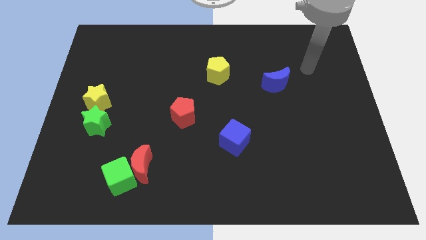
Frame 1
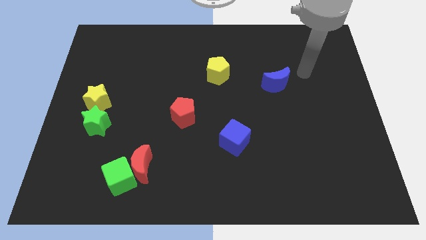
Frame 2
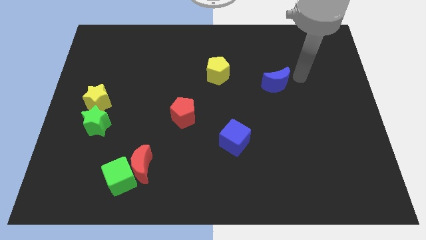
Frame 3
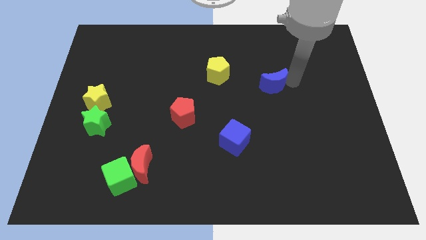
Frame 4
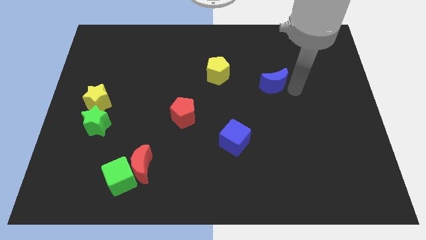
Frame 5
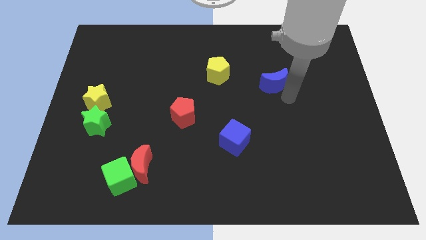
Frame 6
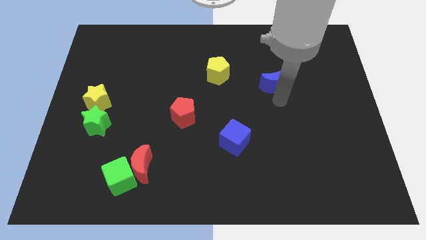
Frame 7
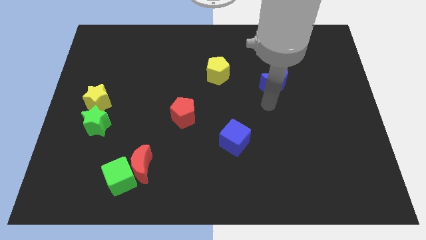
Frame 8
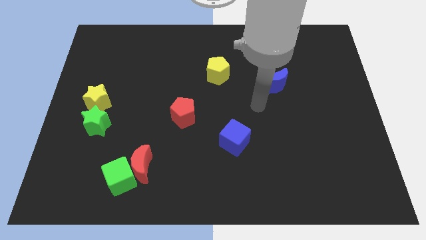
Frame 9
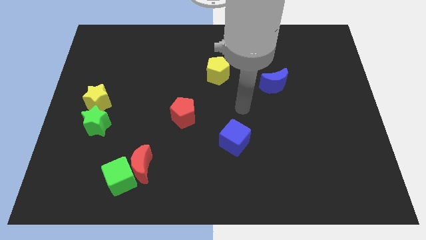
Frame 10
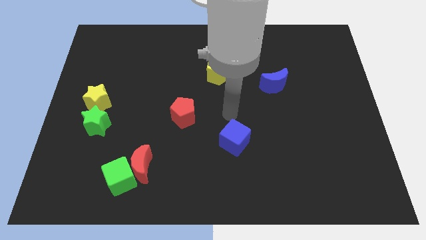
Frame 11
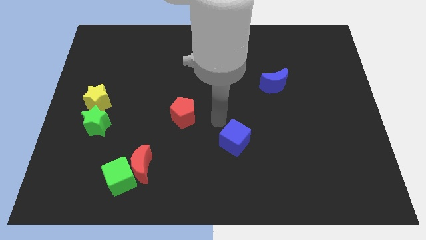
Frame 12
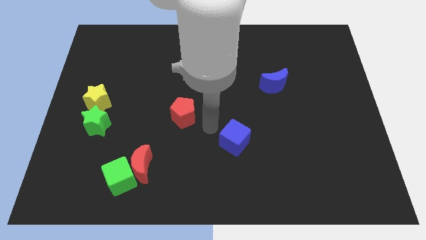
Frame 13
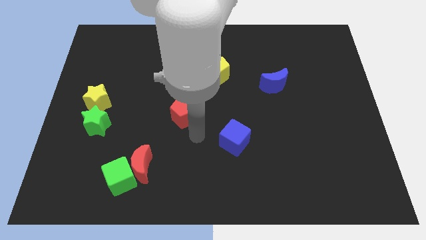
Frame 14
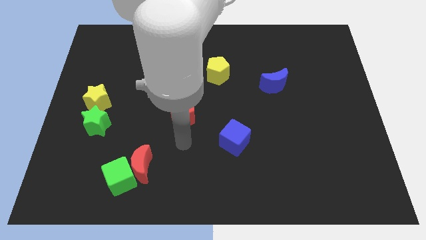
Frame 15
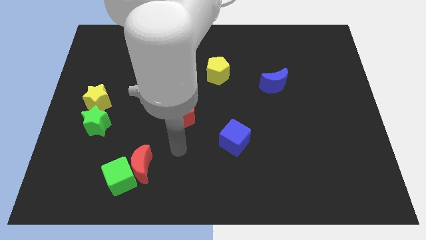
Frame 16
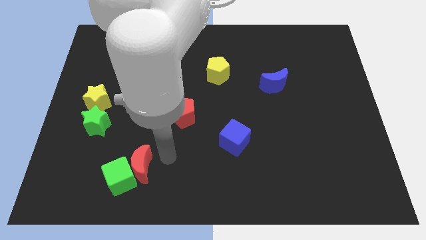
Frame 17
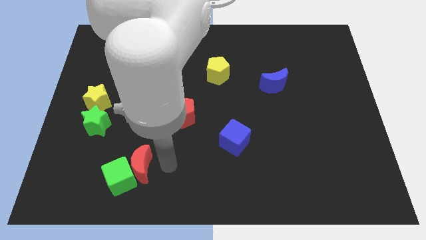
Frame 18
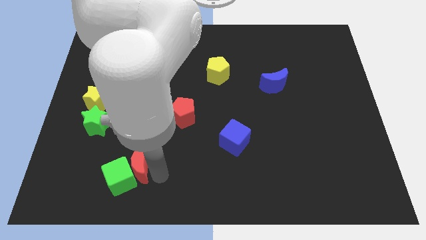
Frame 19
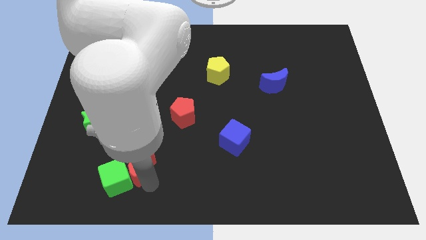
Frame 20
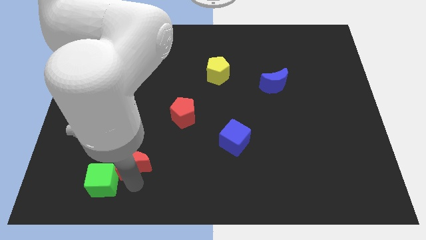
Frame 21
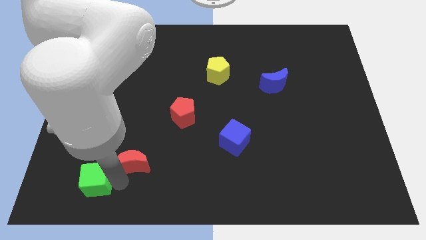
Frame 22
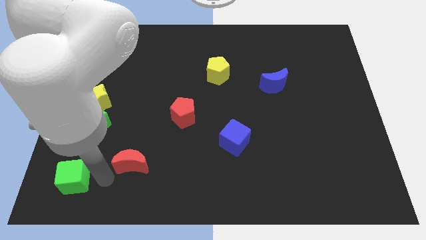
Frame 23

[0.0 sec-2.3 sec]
pull the red moon apart from the green cube

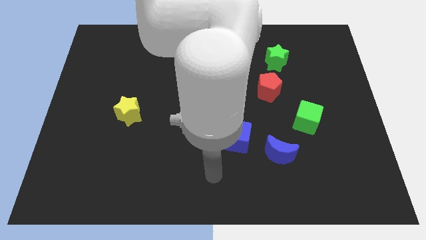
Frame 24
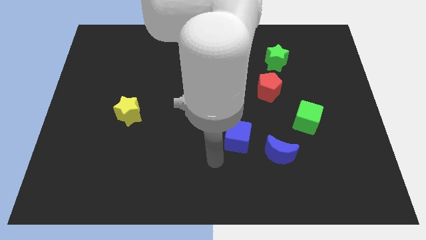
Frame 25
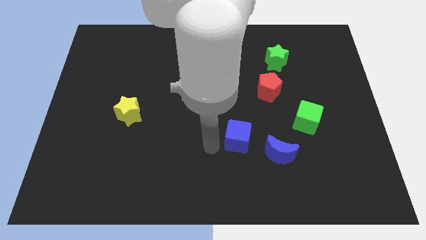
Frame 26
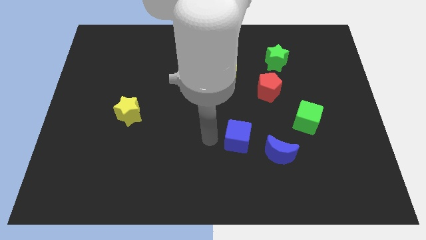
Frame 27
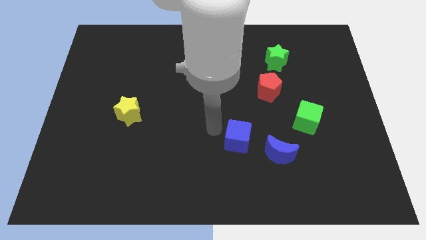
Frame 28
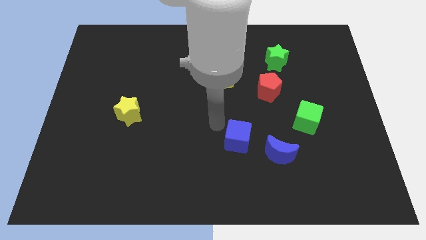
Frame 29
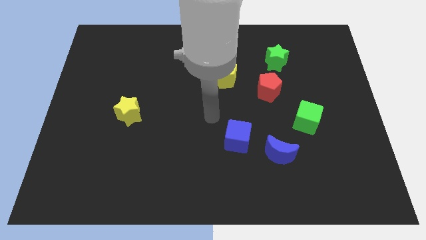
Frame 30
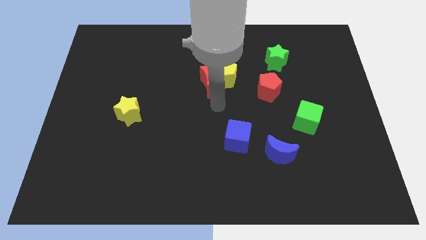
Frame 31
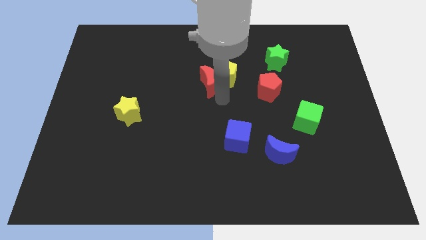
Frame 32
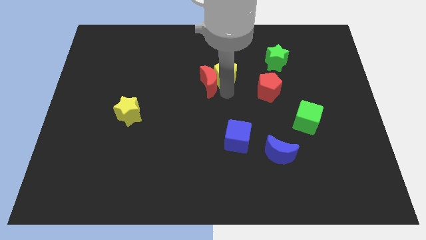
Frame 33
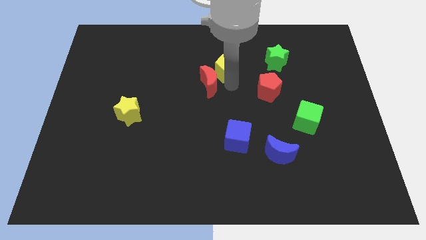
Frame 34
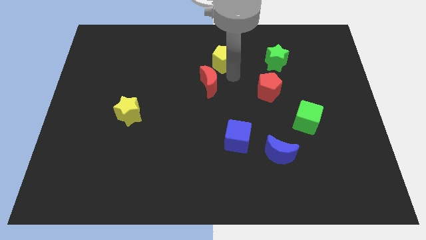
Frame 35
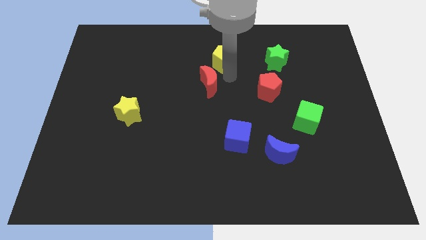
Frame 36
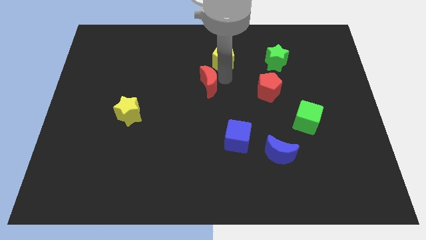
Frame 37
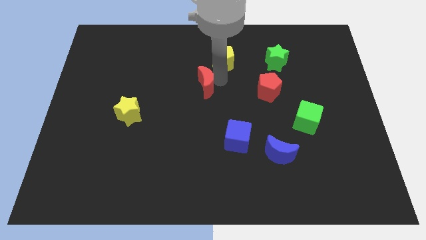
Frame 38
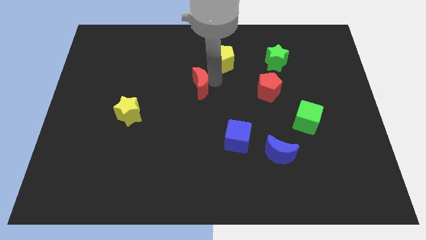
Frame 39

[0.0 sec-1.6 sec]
move the red moon away from the yellow pentagon

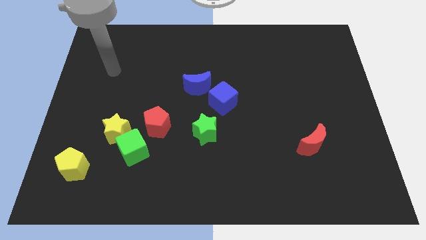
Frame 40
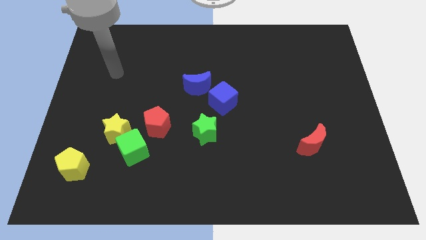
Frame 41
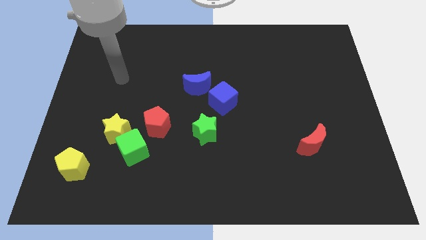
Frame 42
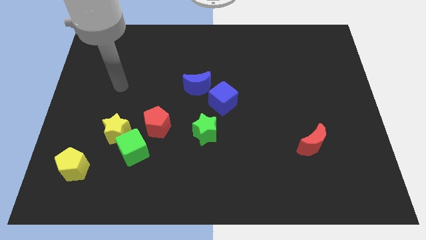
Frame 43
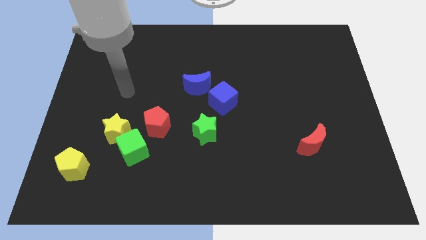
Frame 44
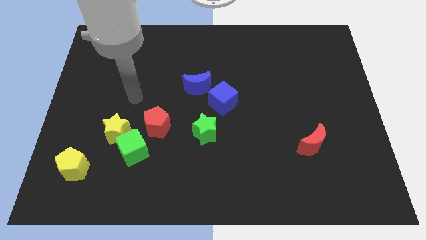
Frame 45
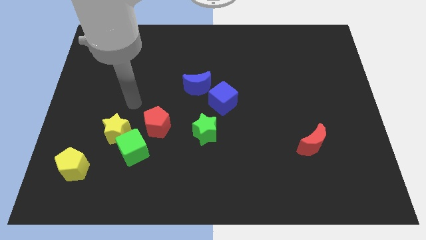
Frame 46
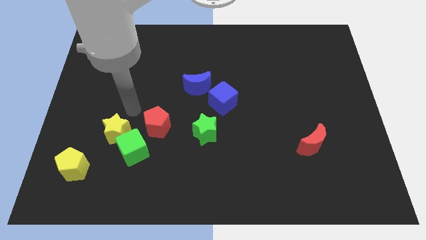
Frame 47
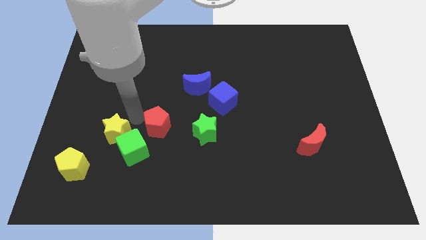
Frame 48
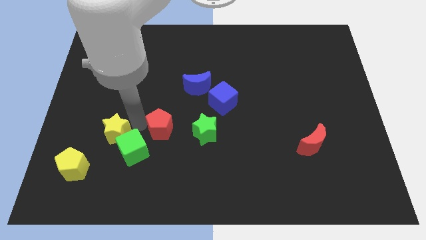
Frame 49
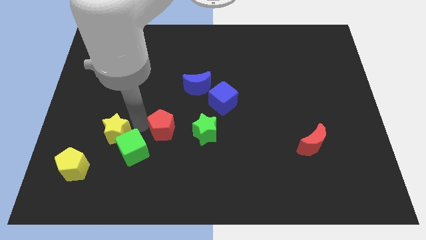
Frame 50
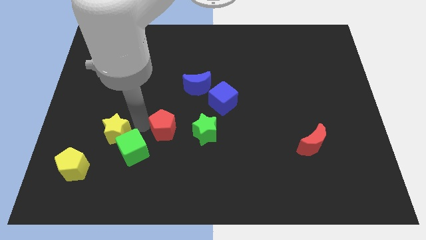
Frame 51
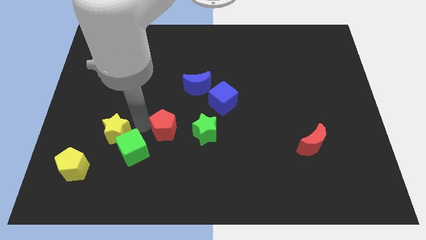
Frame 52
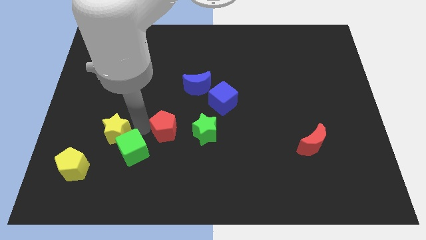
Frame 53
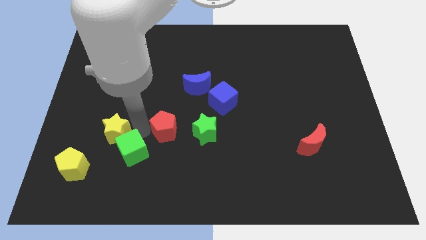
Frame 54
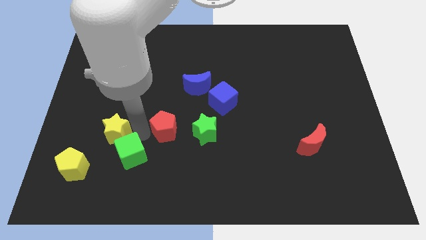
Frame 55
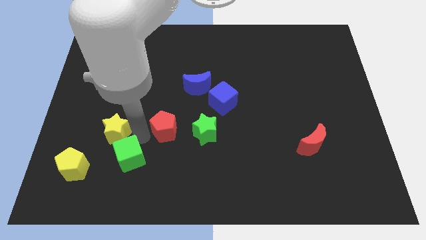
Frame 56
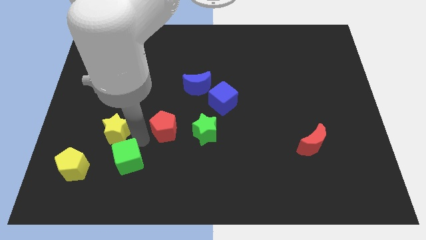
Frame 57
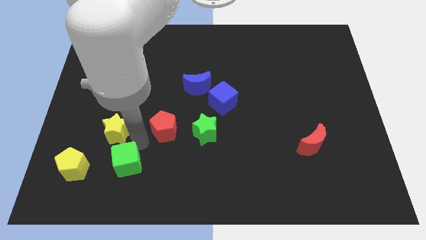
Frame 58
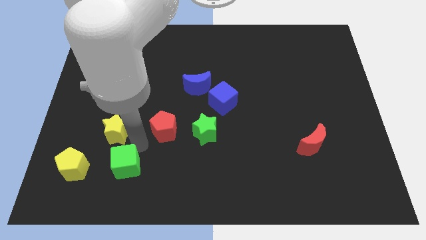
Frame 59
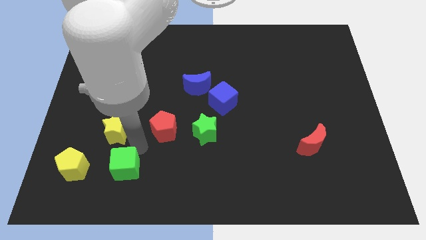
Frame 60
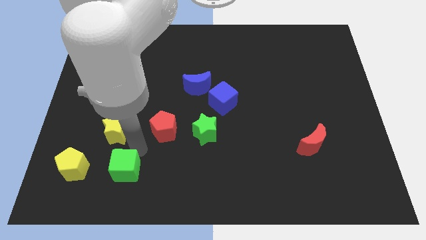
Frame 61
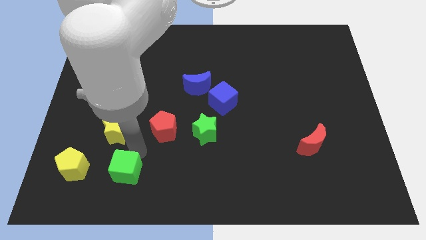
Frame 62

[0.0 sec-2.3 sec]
move the green cube away from the yellow star and red pentagon

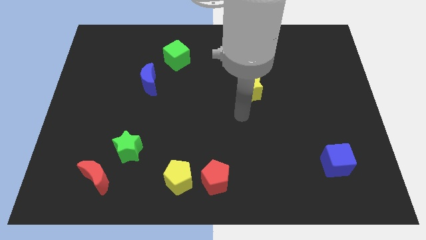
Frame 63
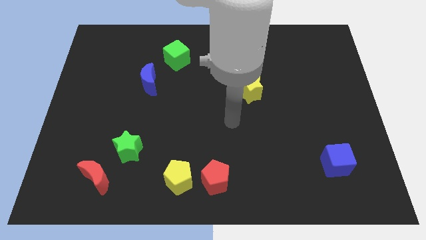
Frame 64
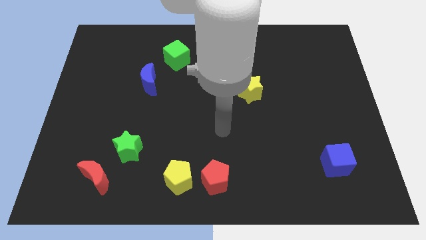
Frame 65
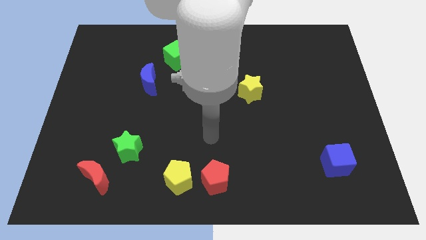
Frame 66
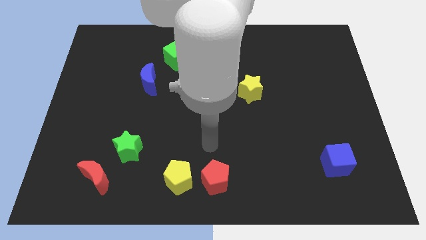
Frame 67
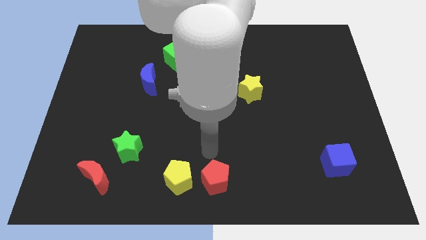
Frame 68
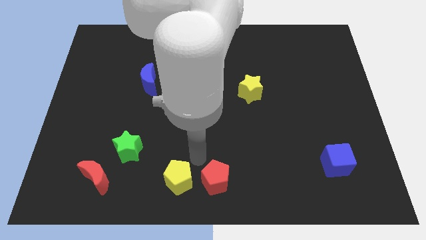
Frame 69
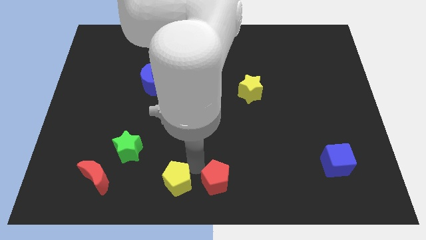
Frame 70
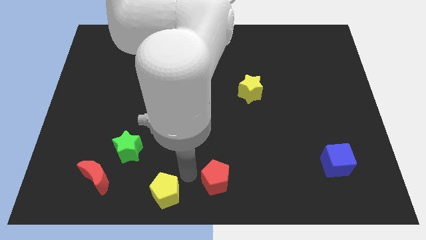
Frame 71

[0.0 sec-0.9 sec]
move the red pentagon away from the yellow pentagon

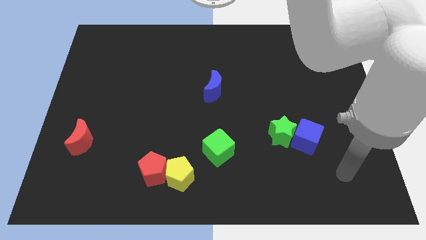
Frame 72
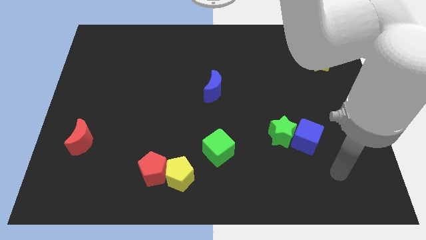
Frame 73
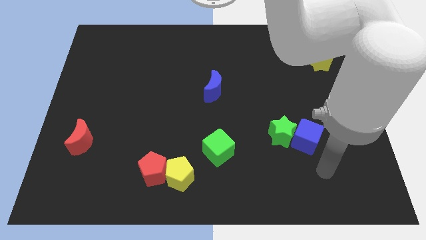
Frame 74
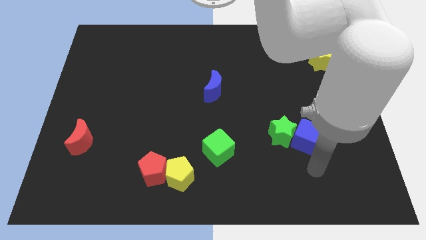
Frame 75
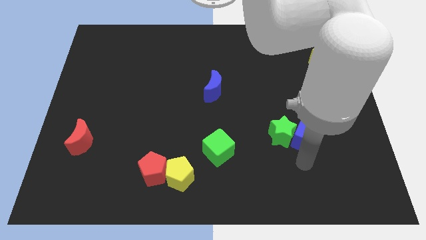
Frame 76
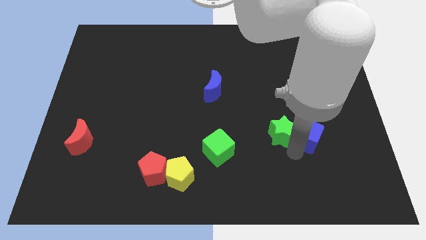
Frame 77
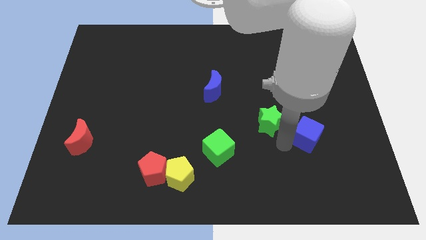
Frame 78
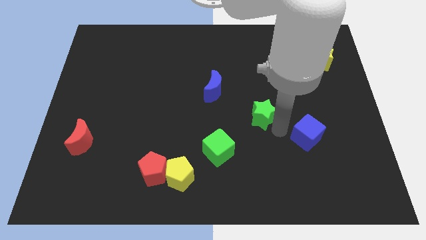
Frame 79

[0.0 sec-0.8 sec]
pull the blue cube apart from the green star

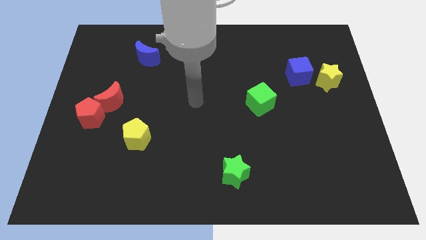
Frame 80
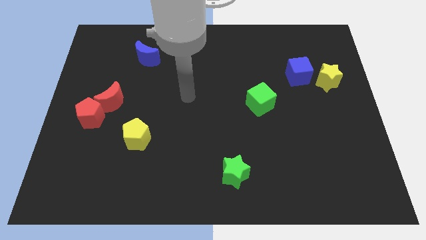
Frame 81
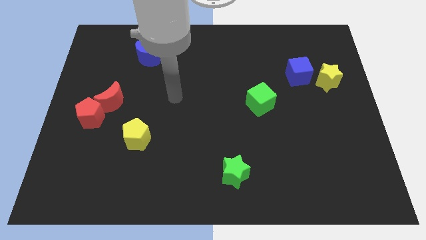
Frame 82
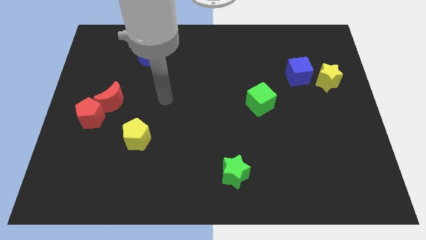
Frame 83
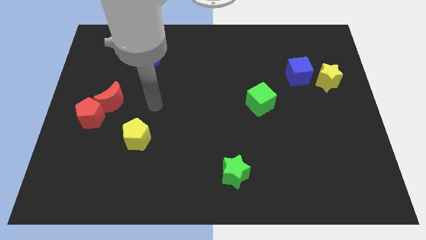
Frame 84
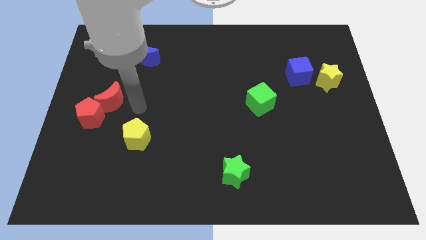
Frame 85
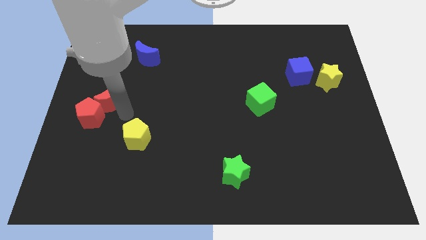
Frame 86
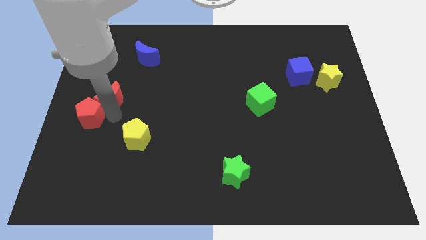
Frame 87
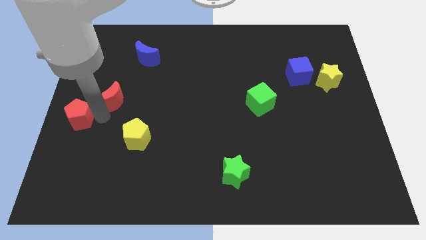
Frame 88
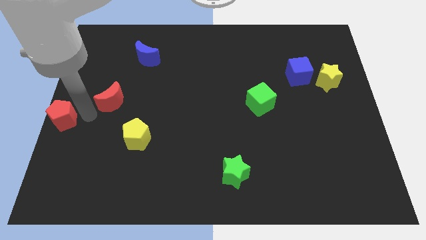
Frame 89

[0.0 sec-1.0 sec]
separate the red moon from the red pentagon

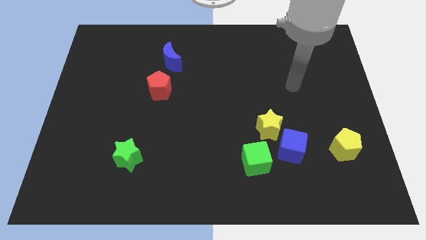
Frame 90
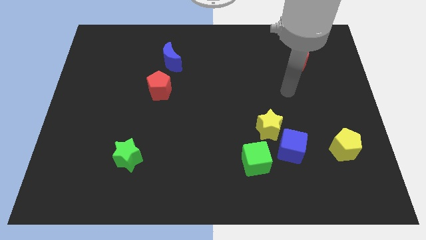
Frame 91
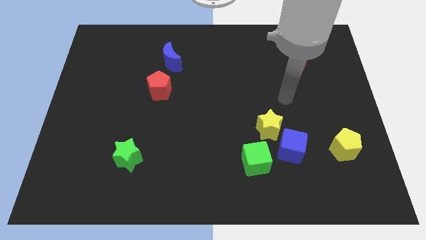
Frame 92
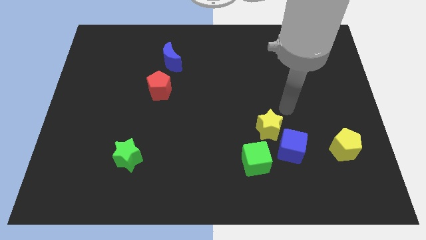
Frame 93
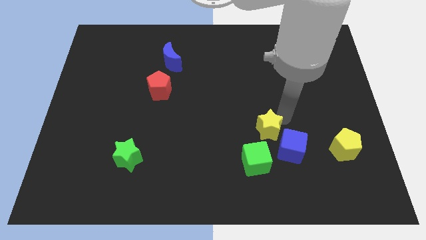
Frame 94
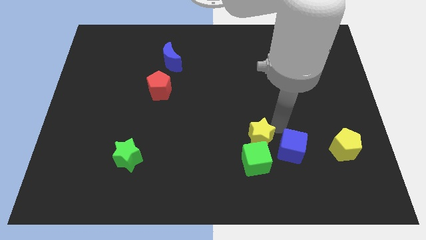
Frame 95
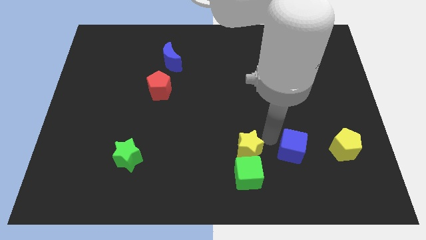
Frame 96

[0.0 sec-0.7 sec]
separate the blue cube from the yellow star and green cube
